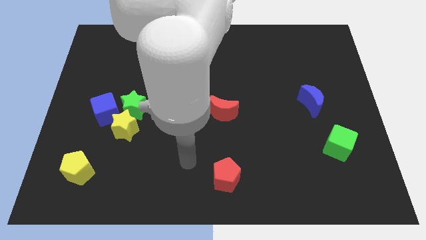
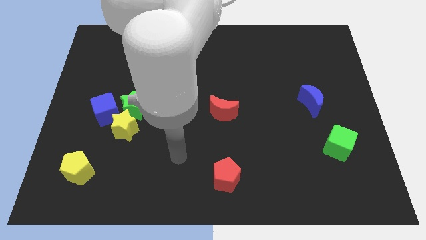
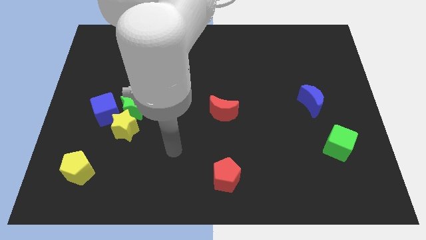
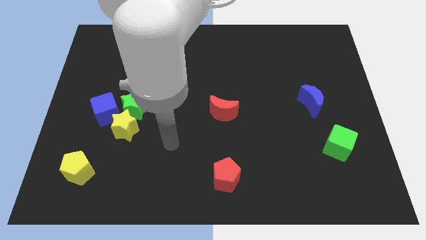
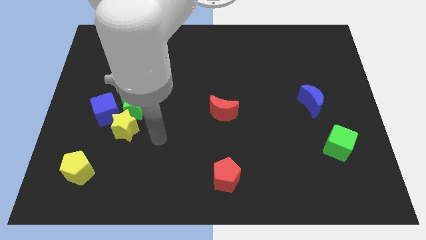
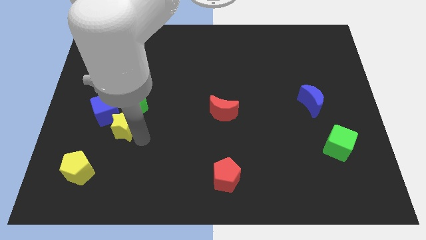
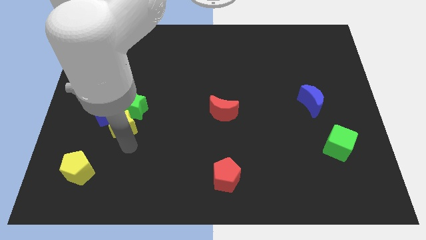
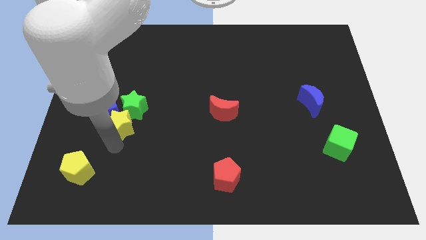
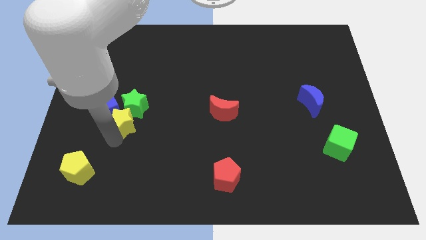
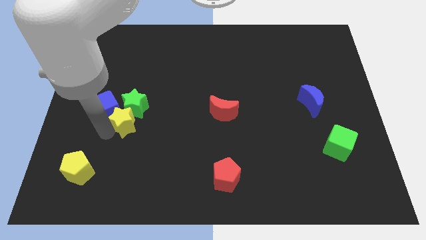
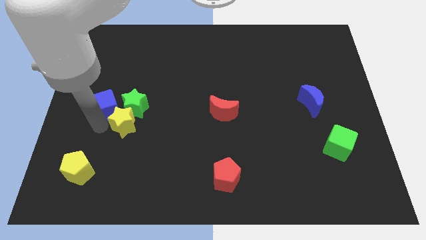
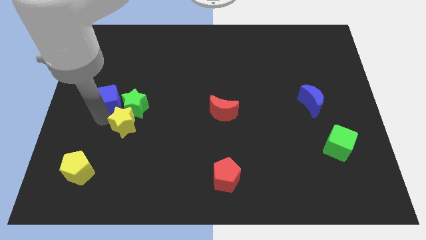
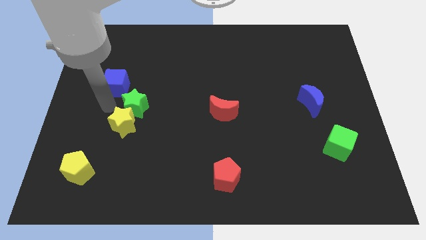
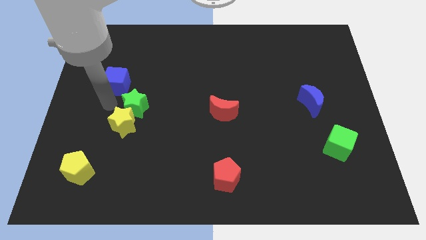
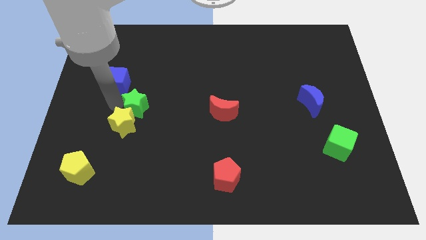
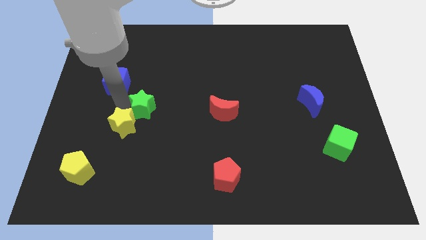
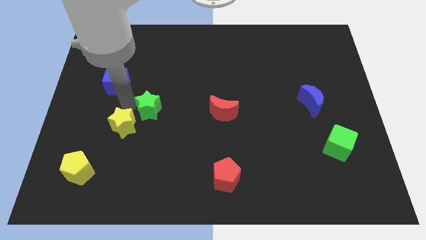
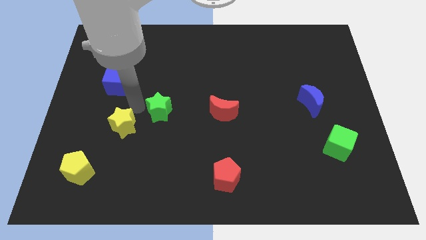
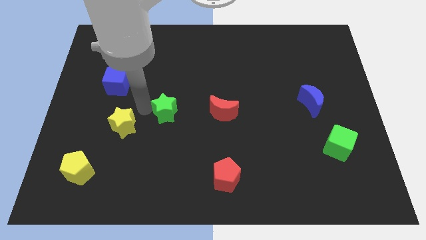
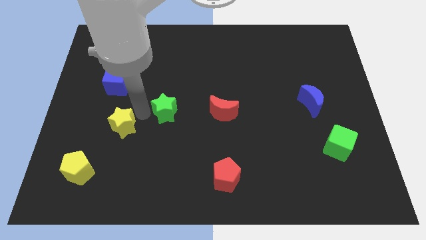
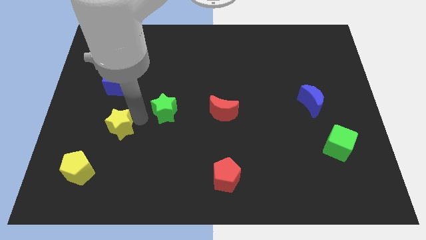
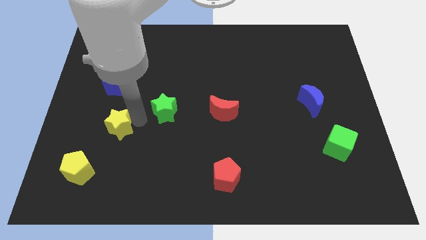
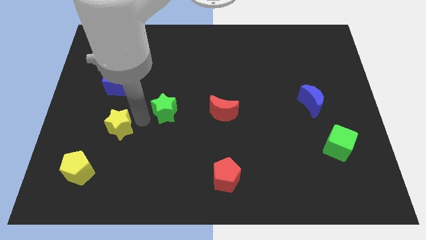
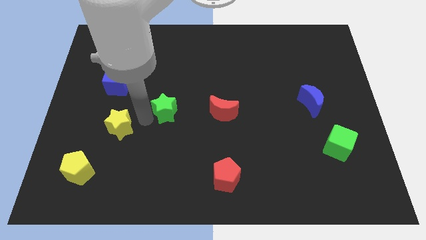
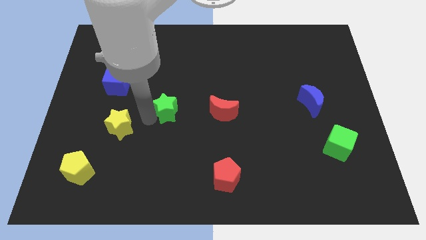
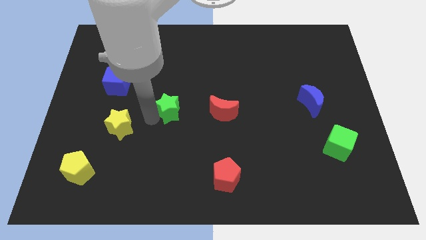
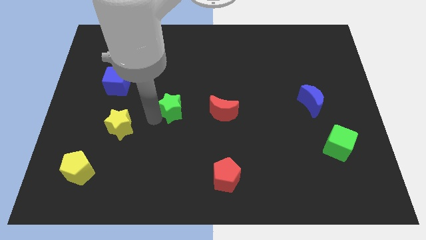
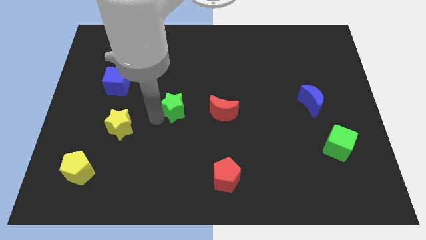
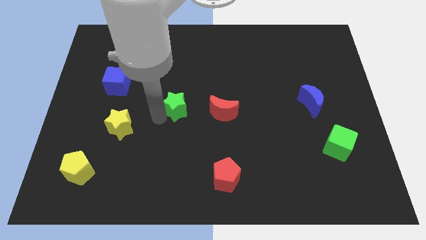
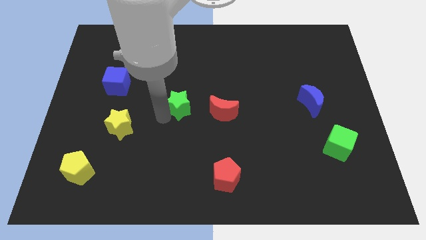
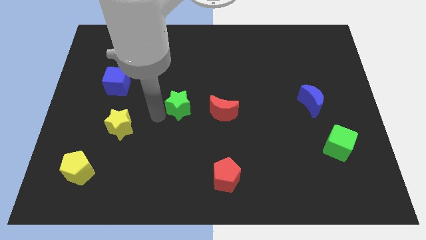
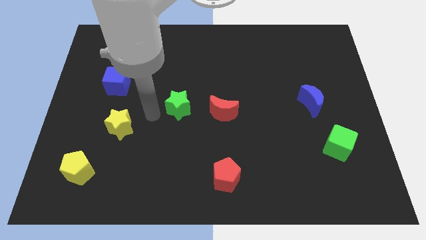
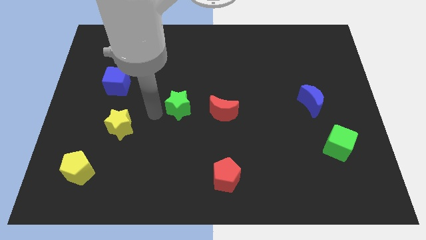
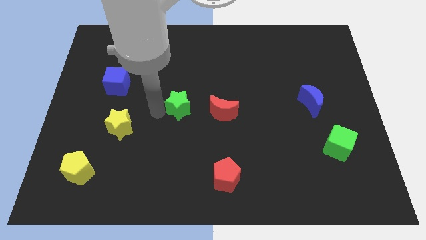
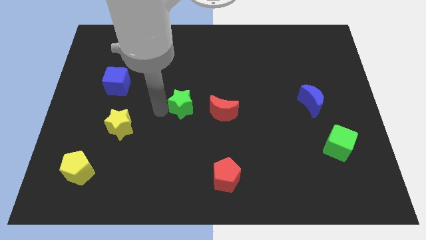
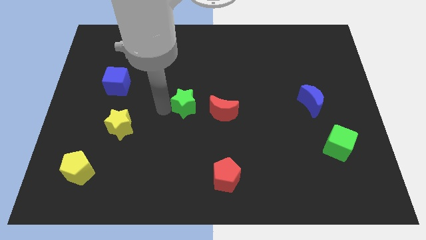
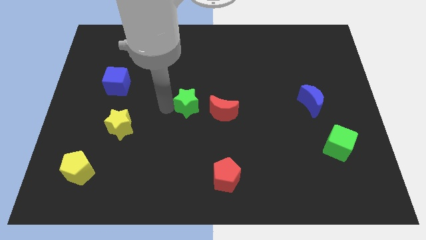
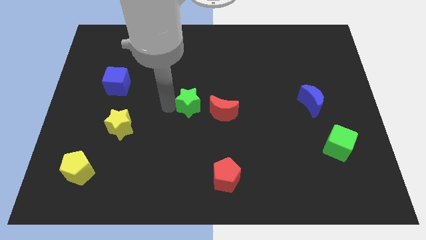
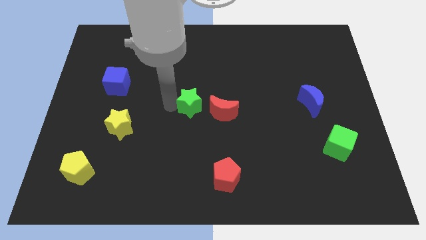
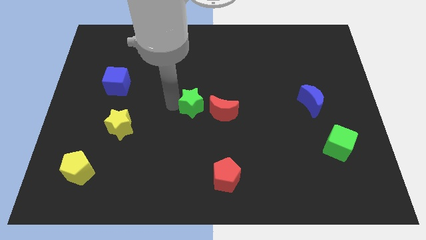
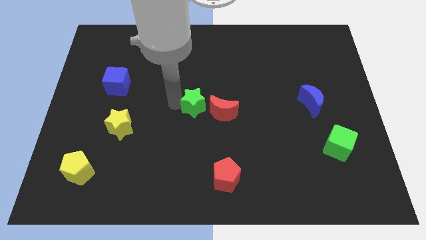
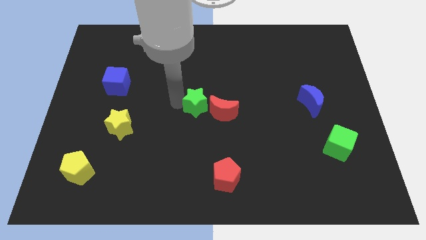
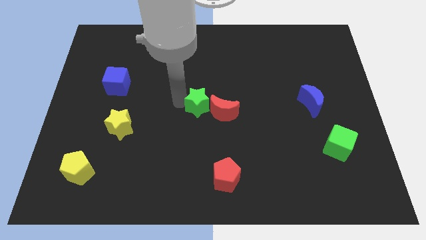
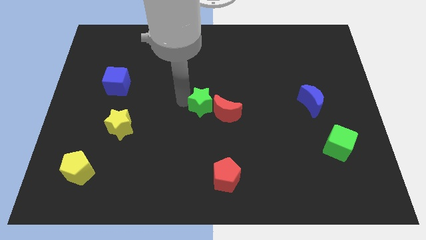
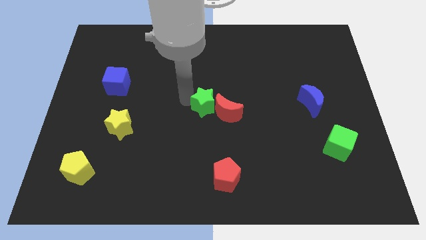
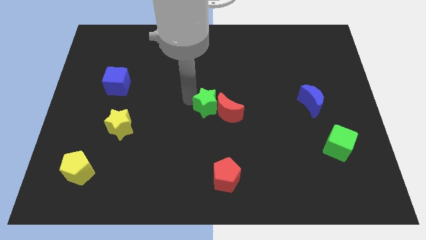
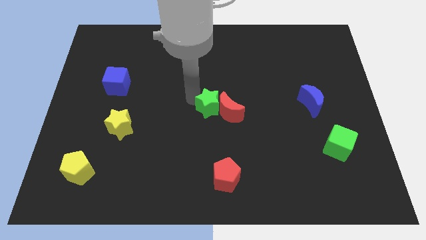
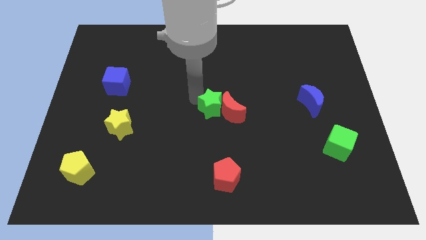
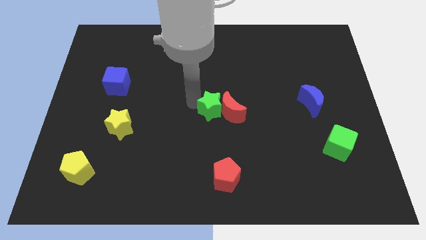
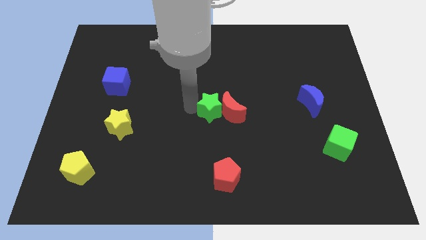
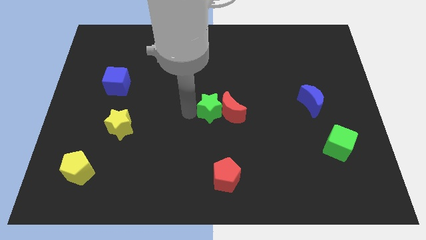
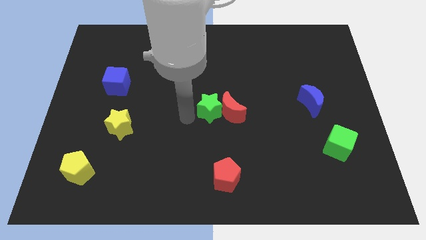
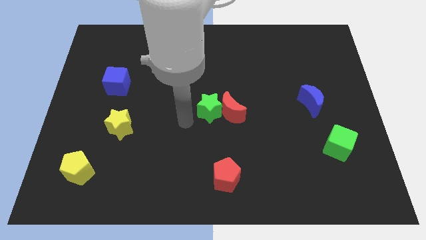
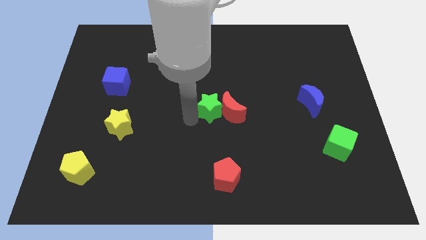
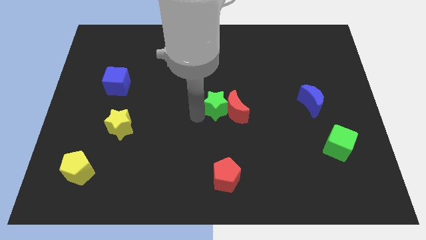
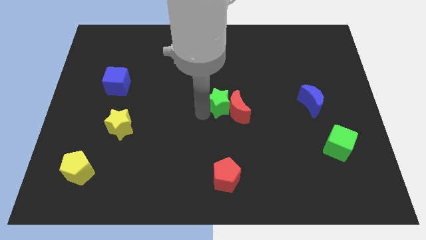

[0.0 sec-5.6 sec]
move the green star right

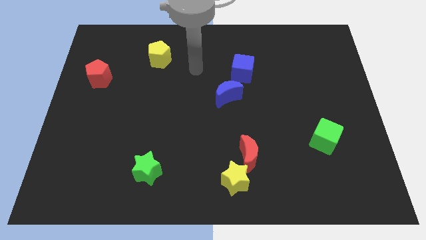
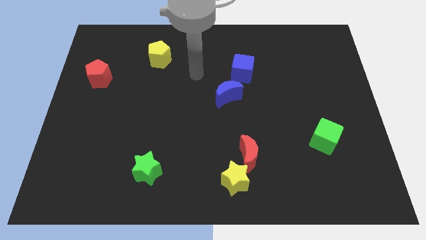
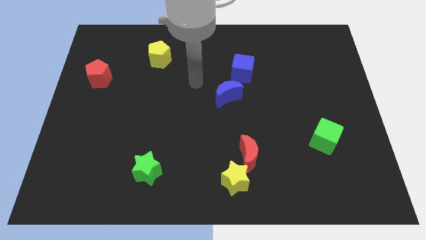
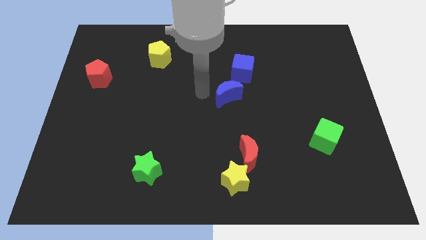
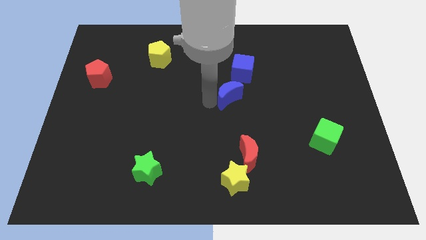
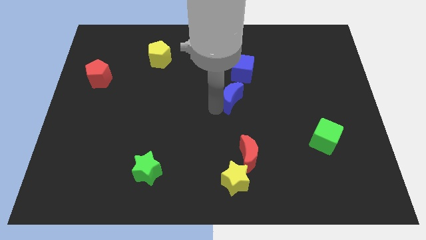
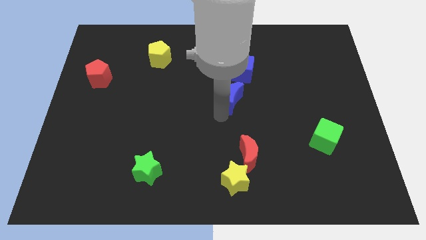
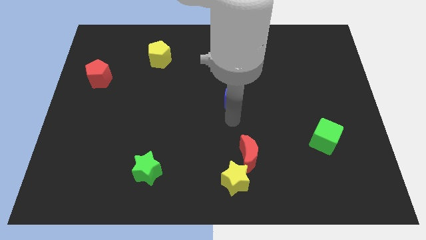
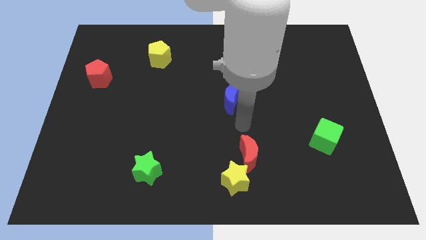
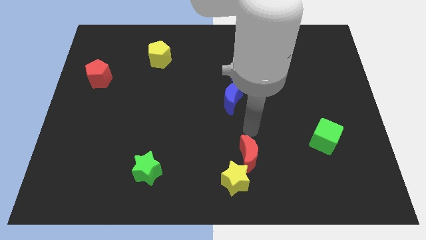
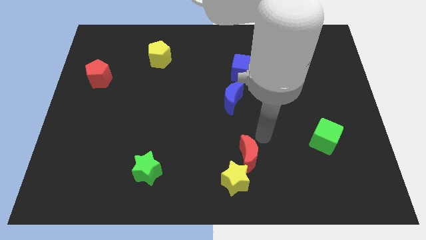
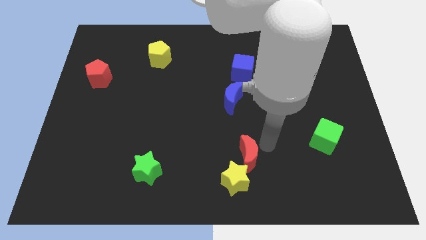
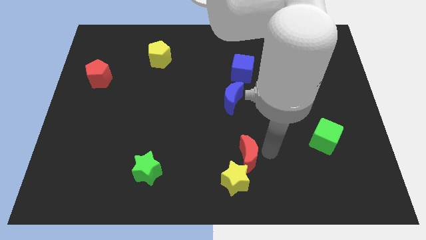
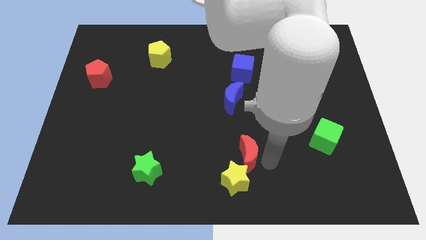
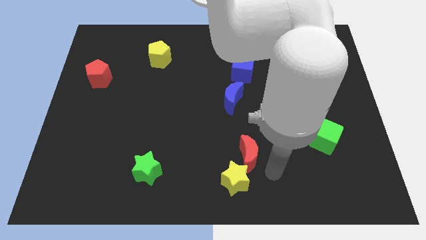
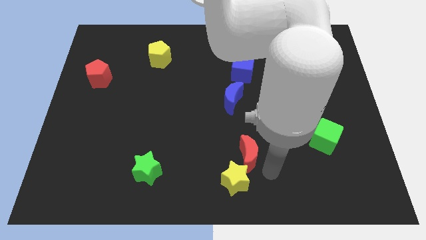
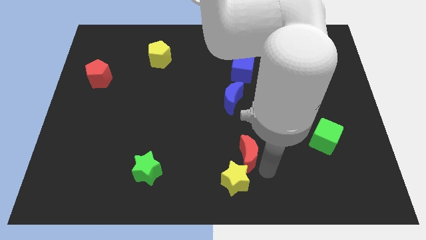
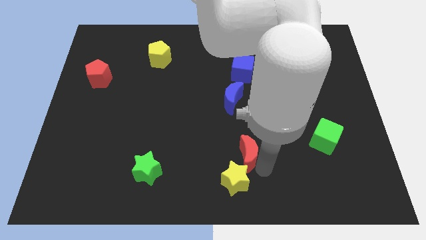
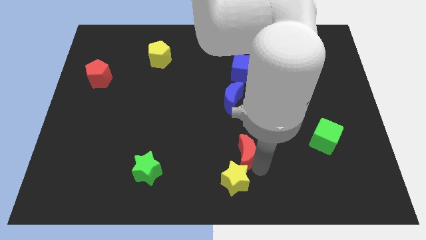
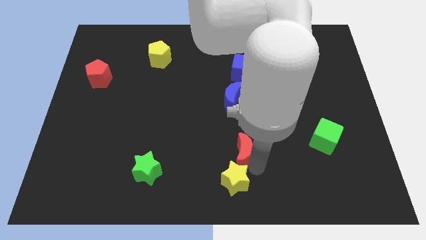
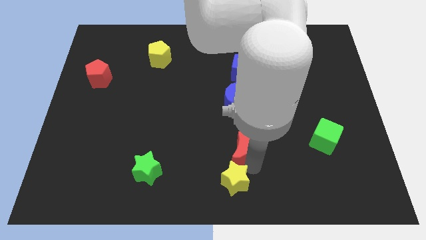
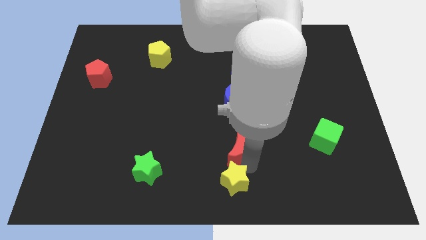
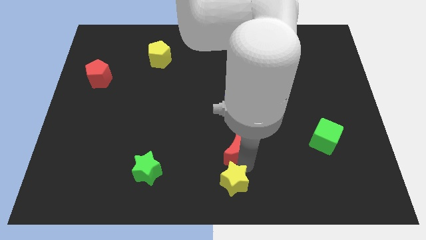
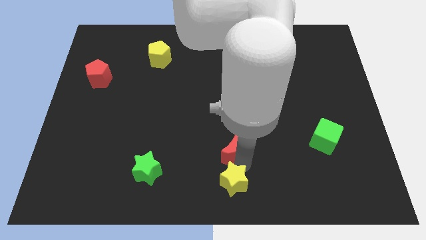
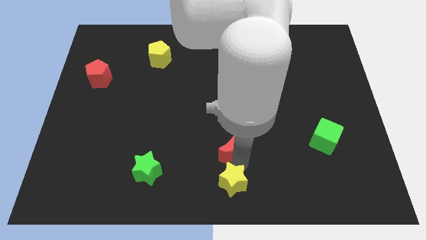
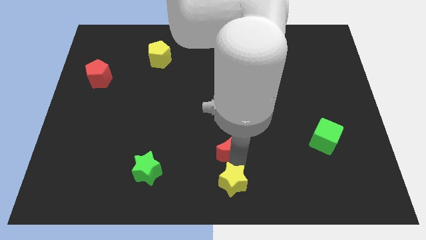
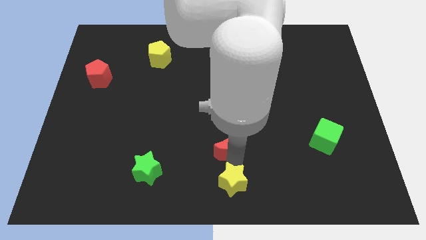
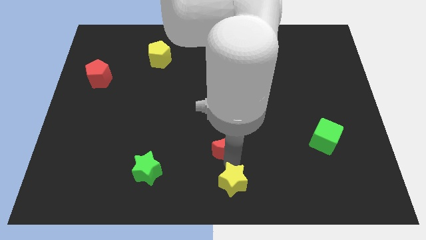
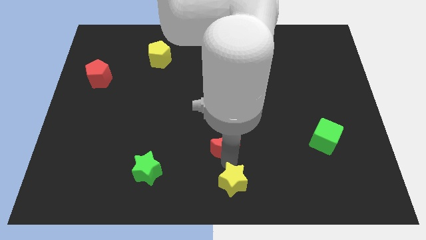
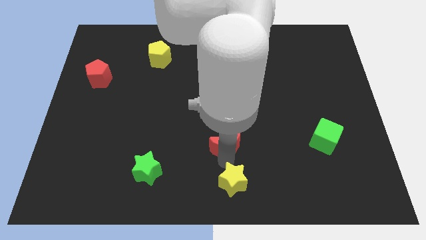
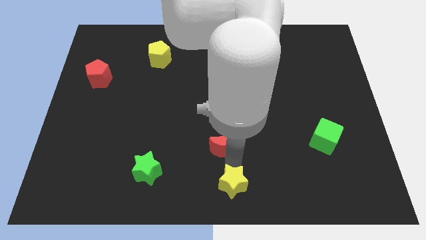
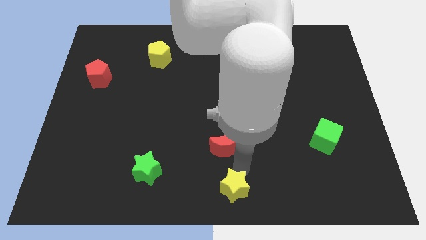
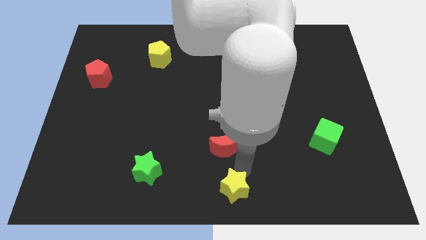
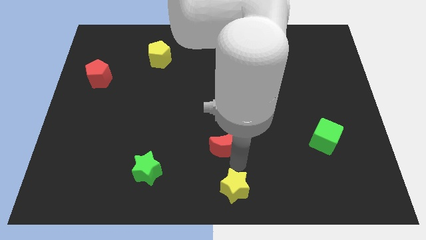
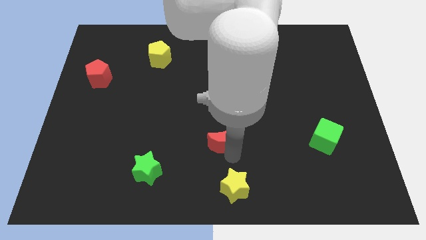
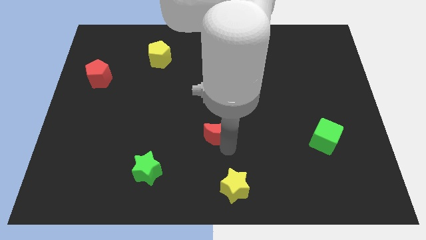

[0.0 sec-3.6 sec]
move the red moon upwards and then to the left a bit
